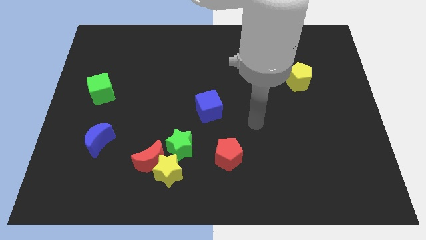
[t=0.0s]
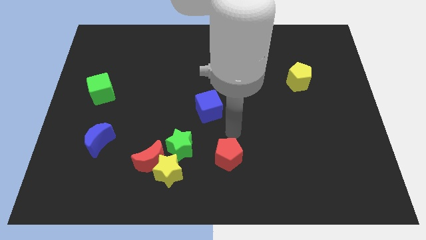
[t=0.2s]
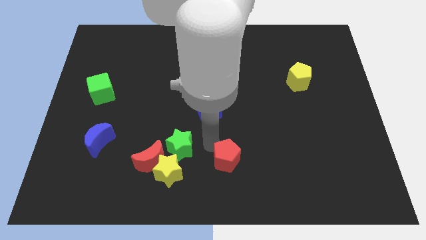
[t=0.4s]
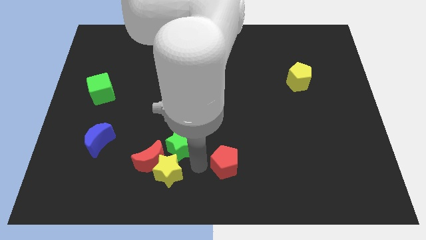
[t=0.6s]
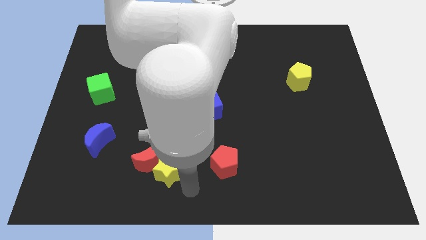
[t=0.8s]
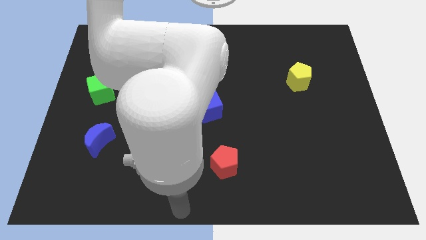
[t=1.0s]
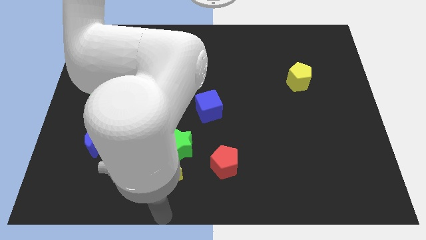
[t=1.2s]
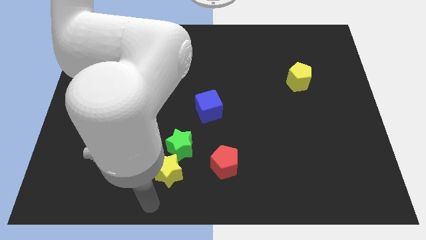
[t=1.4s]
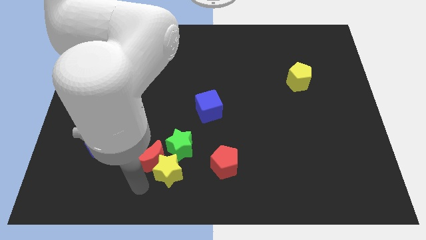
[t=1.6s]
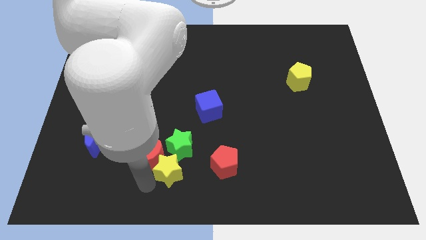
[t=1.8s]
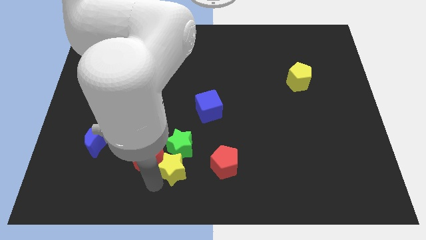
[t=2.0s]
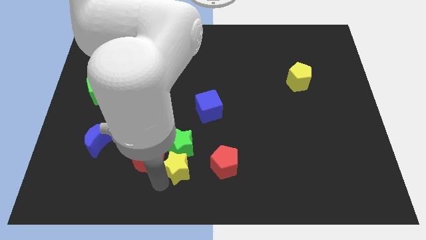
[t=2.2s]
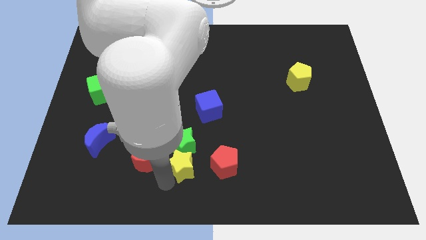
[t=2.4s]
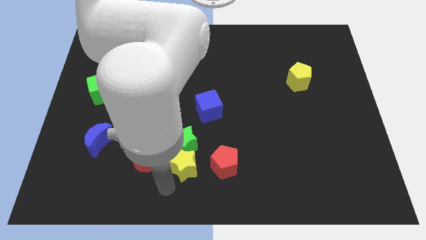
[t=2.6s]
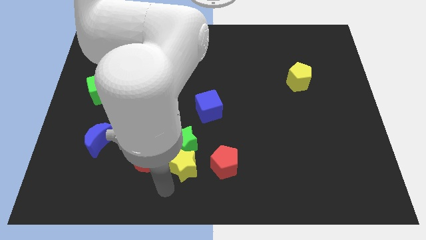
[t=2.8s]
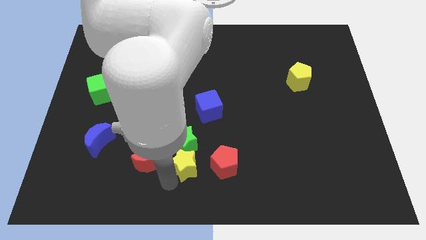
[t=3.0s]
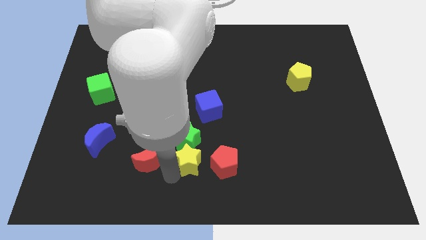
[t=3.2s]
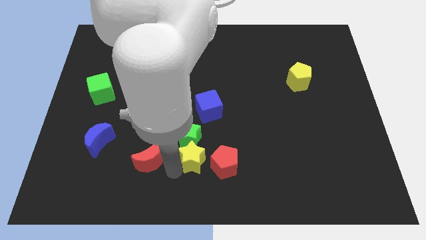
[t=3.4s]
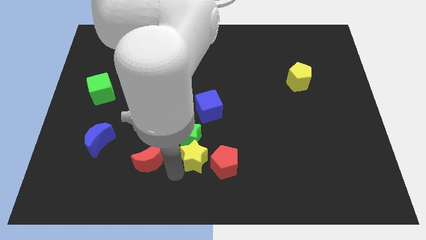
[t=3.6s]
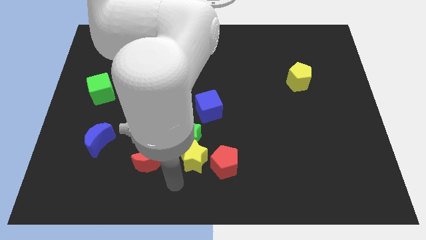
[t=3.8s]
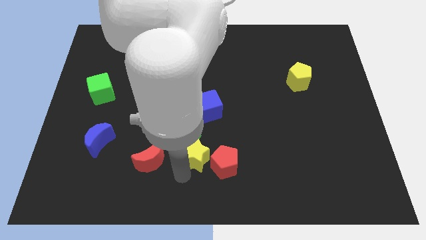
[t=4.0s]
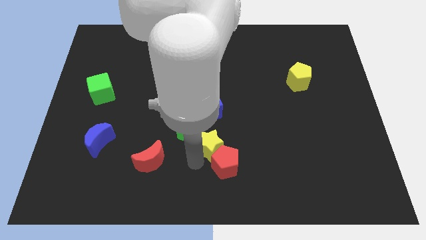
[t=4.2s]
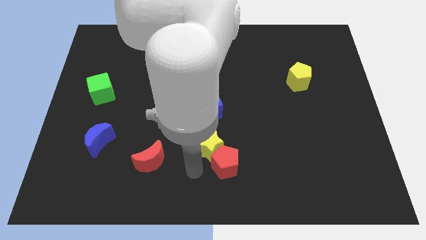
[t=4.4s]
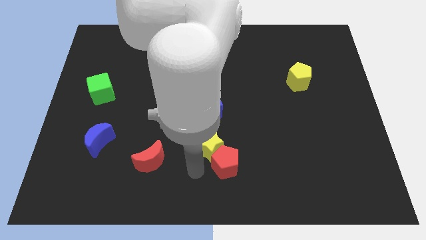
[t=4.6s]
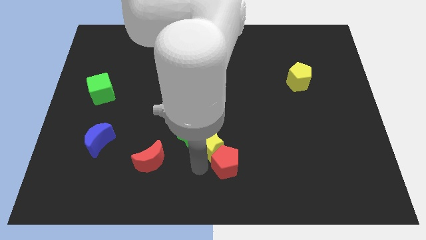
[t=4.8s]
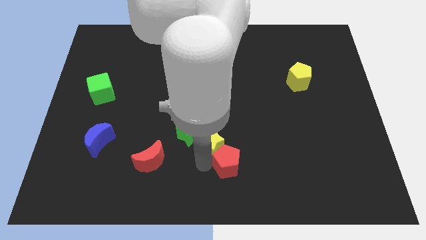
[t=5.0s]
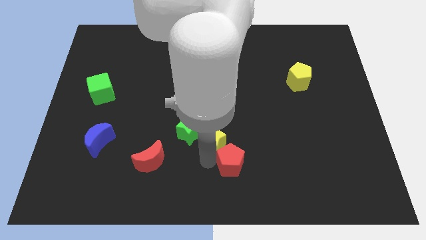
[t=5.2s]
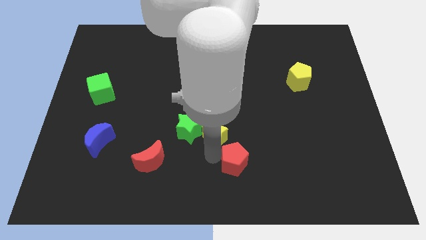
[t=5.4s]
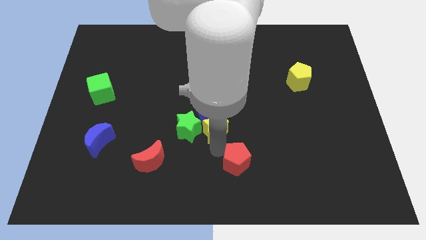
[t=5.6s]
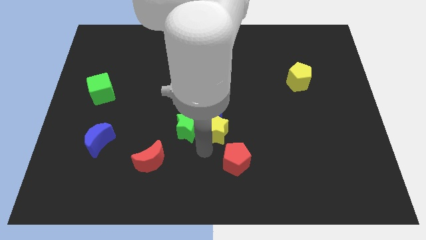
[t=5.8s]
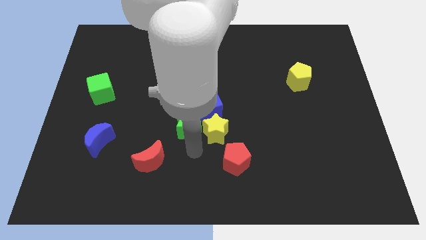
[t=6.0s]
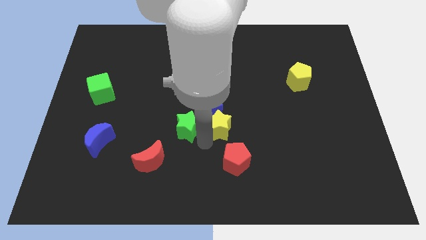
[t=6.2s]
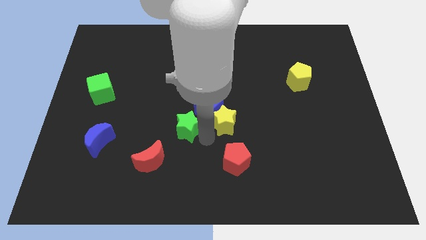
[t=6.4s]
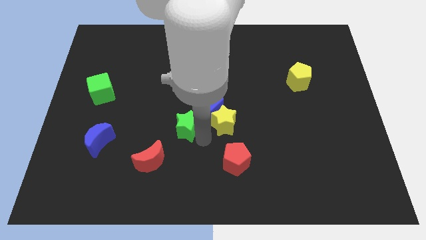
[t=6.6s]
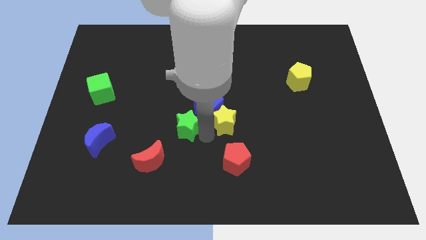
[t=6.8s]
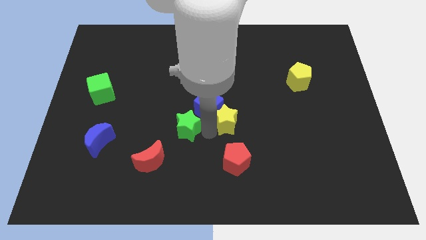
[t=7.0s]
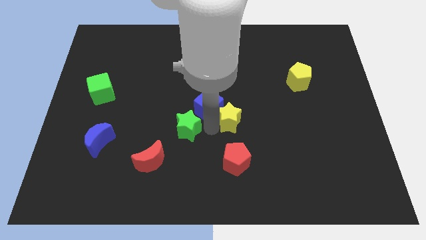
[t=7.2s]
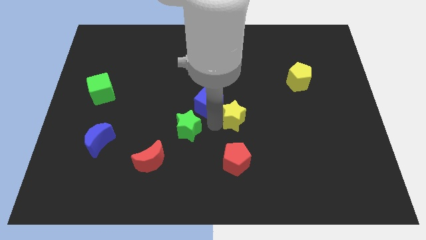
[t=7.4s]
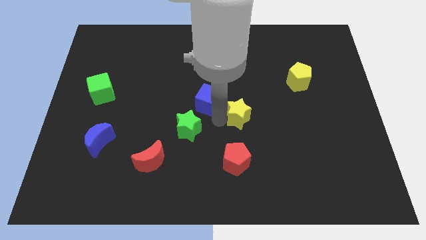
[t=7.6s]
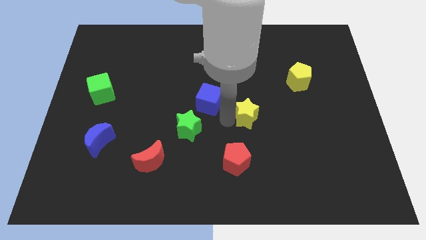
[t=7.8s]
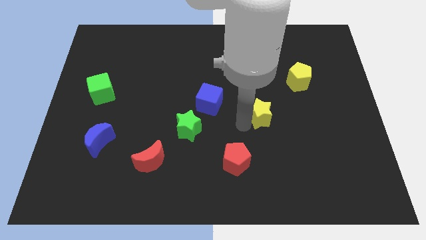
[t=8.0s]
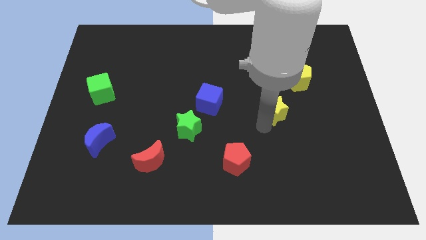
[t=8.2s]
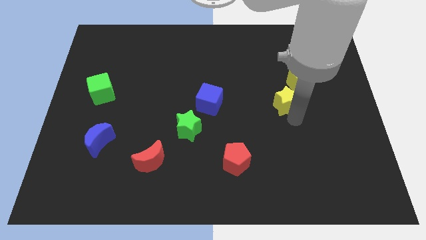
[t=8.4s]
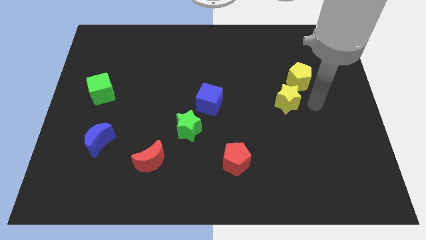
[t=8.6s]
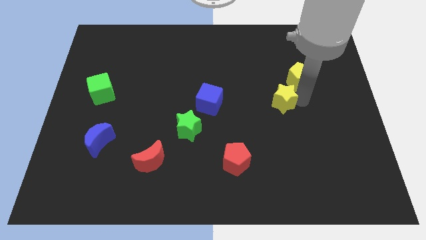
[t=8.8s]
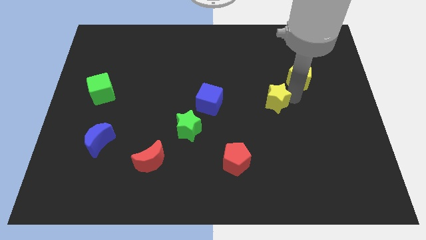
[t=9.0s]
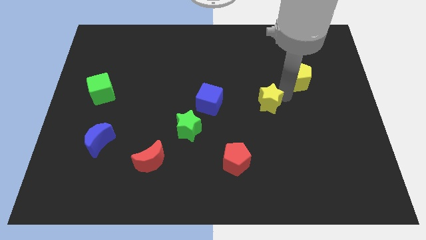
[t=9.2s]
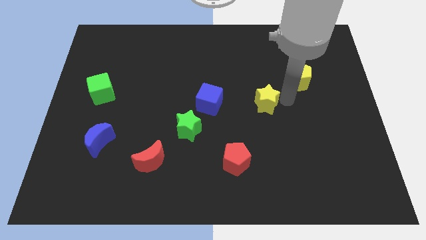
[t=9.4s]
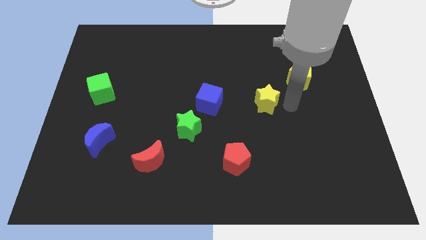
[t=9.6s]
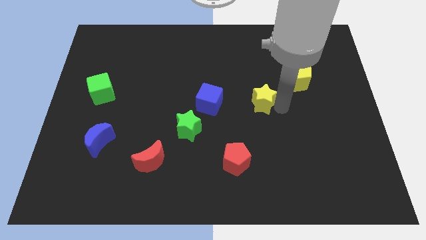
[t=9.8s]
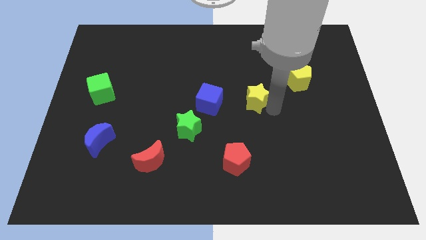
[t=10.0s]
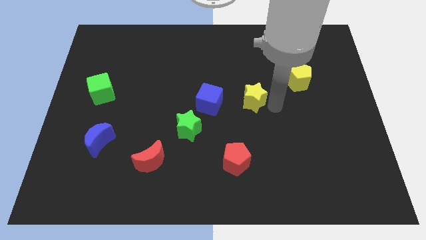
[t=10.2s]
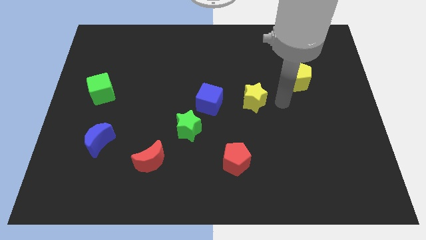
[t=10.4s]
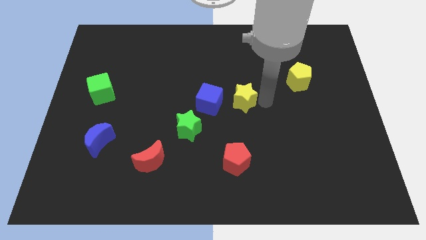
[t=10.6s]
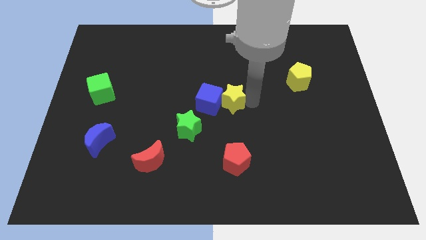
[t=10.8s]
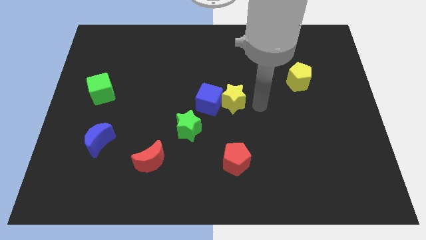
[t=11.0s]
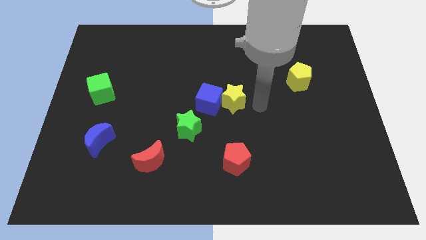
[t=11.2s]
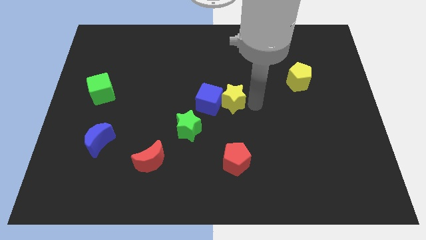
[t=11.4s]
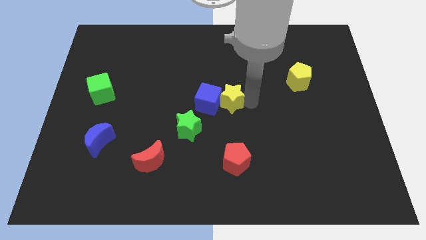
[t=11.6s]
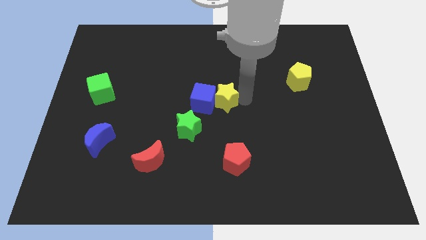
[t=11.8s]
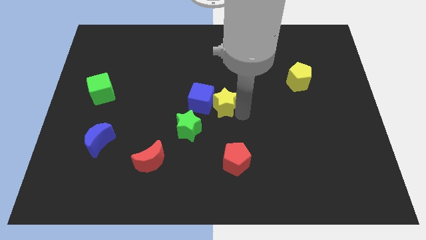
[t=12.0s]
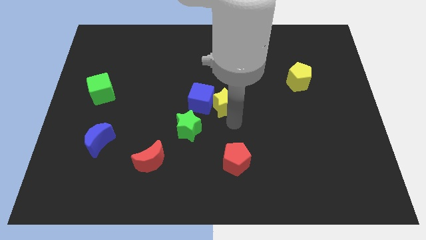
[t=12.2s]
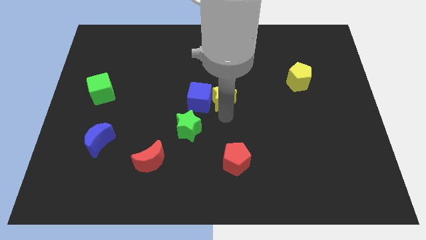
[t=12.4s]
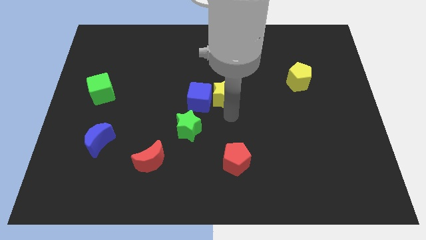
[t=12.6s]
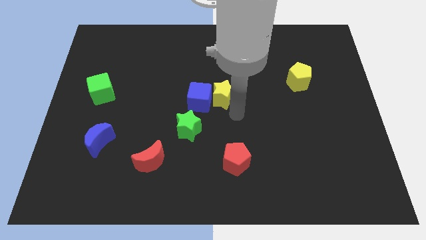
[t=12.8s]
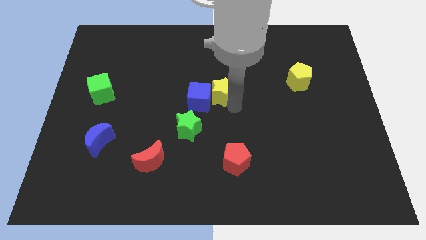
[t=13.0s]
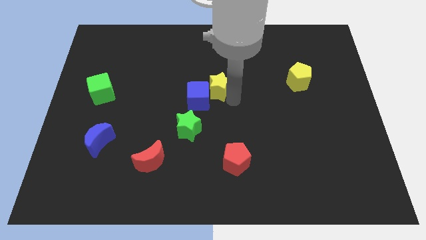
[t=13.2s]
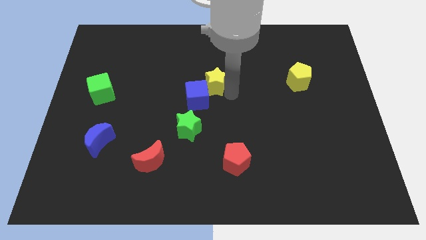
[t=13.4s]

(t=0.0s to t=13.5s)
slide the yellow star to the top of the blue cube
